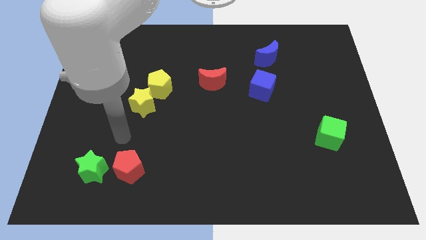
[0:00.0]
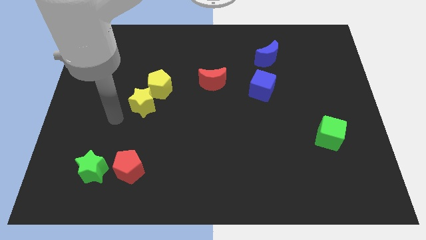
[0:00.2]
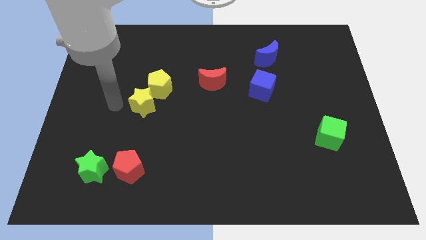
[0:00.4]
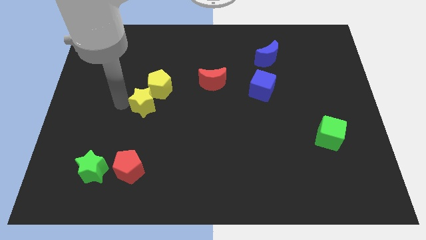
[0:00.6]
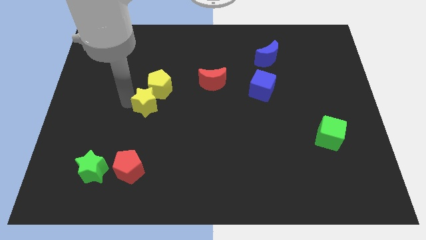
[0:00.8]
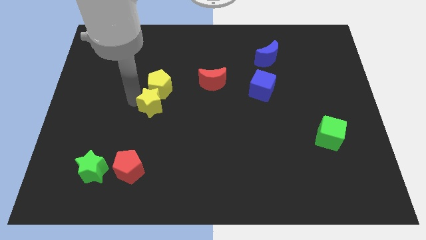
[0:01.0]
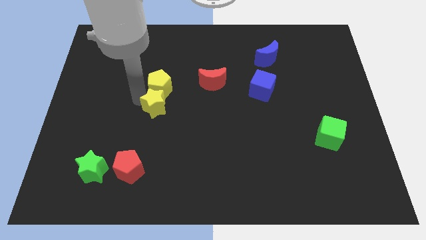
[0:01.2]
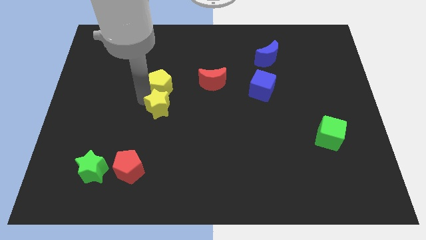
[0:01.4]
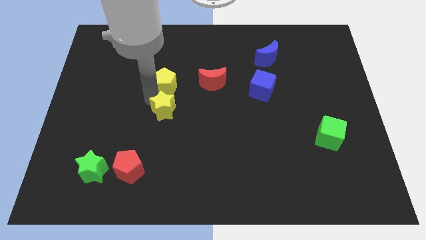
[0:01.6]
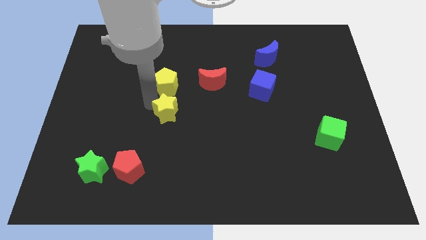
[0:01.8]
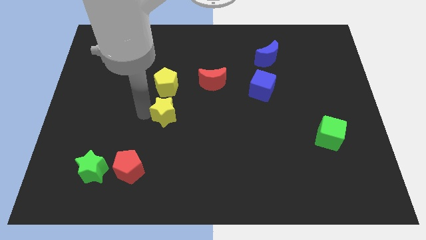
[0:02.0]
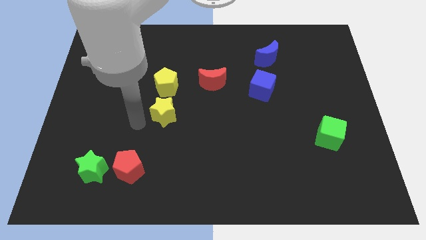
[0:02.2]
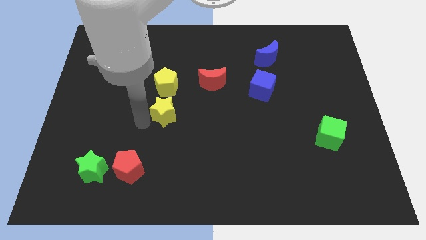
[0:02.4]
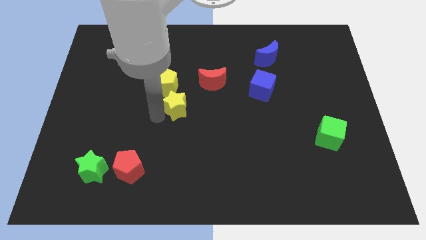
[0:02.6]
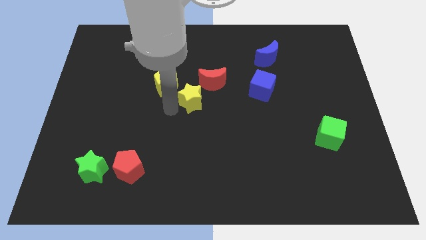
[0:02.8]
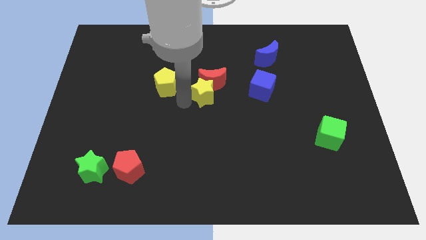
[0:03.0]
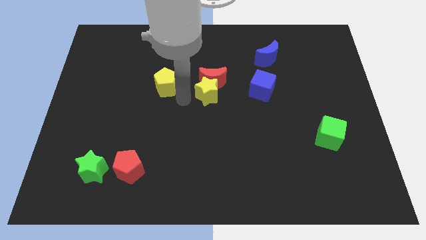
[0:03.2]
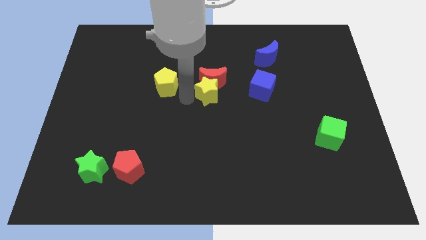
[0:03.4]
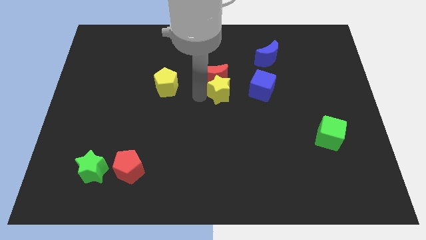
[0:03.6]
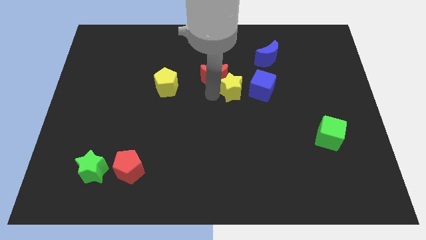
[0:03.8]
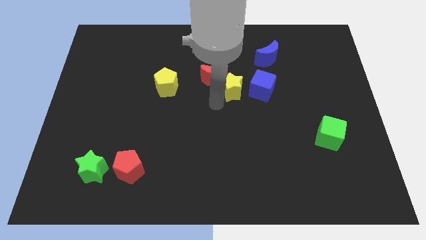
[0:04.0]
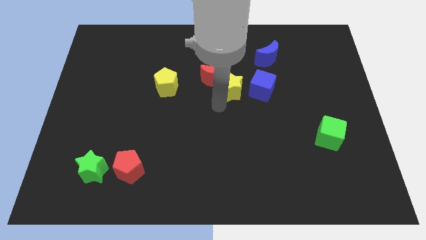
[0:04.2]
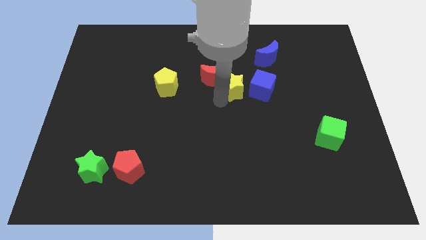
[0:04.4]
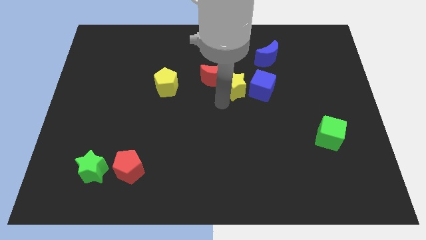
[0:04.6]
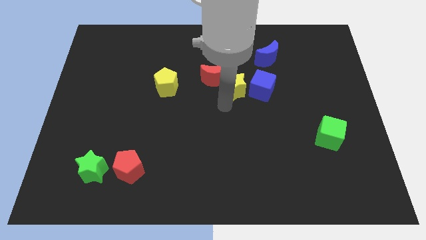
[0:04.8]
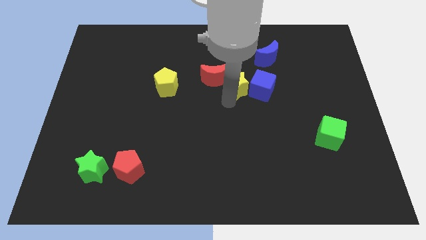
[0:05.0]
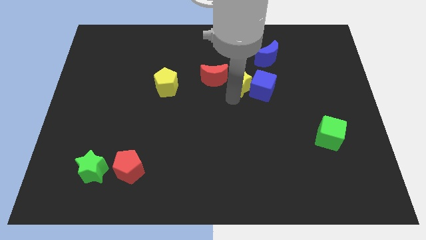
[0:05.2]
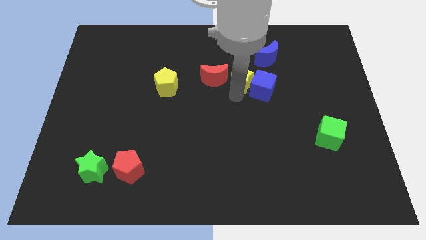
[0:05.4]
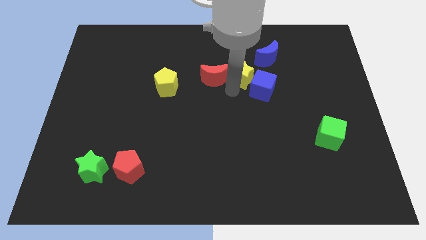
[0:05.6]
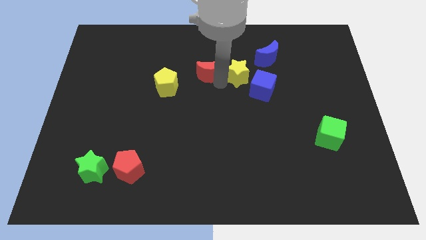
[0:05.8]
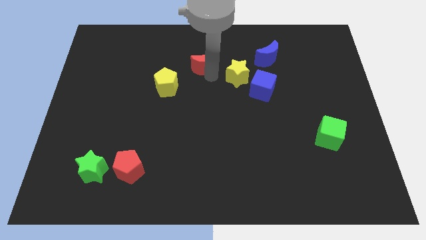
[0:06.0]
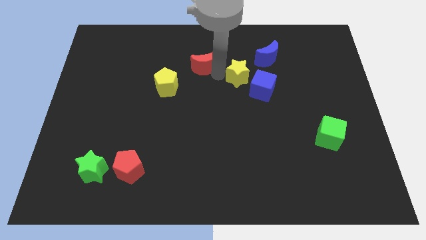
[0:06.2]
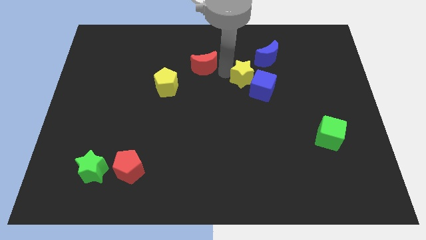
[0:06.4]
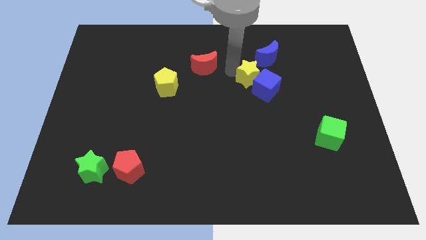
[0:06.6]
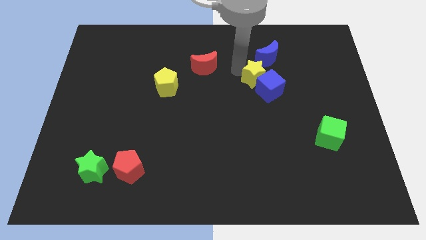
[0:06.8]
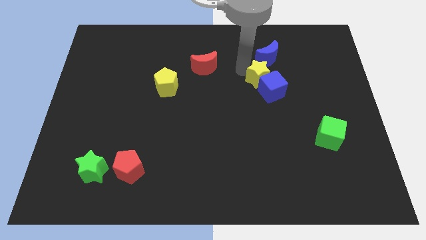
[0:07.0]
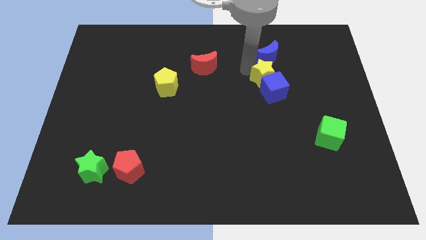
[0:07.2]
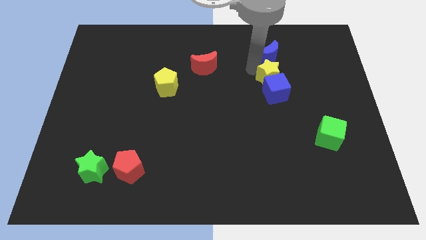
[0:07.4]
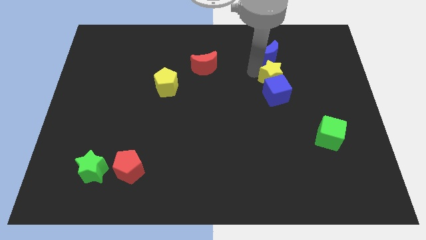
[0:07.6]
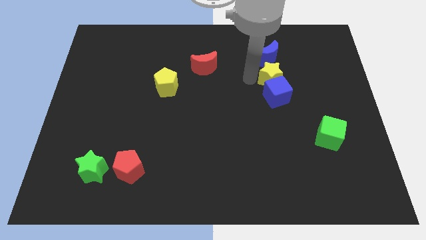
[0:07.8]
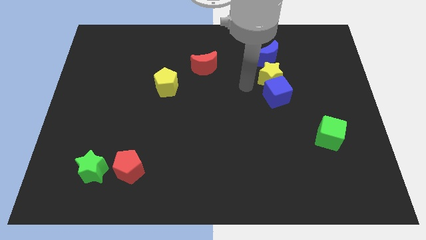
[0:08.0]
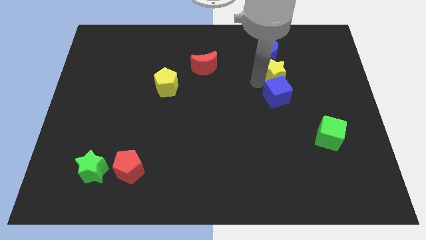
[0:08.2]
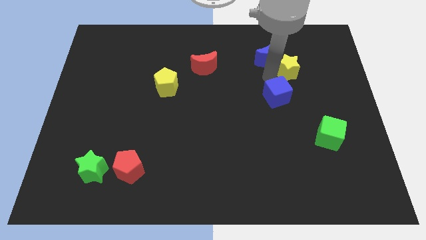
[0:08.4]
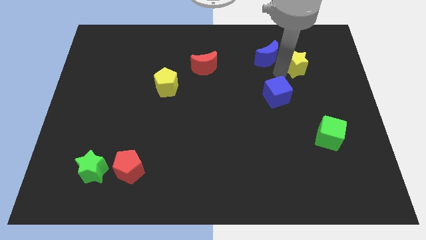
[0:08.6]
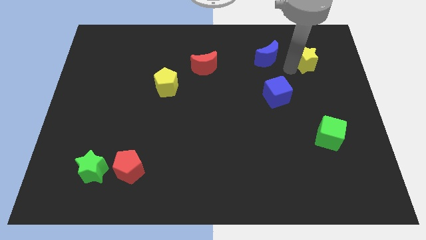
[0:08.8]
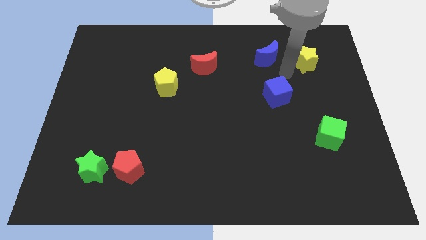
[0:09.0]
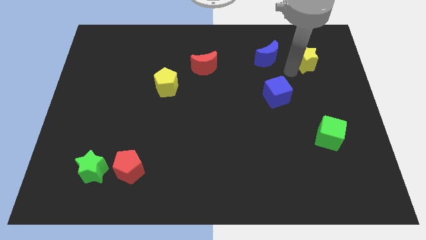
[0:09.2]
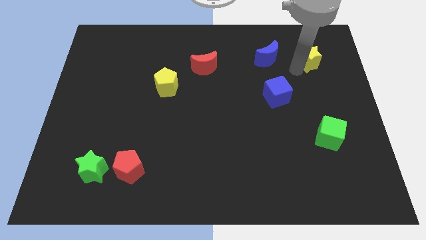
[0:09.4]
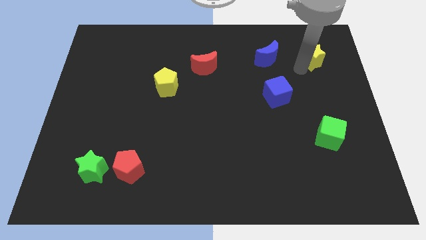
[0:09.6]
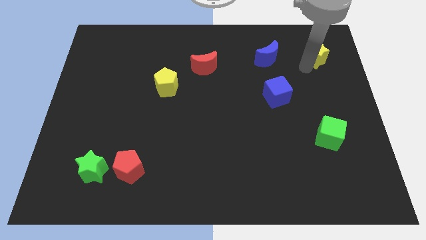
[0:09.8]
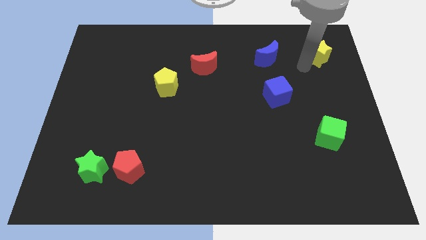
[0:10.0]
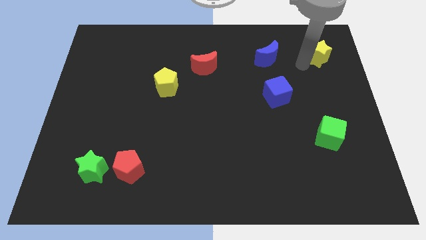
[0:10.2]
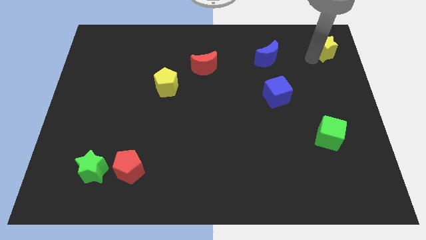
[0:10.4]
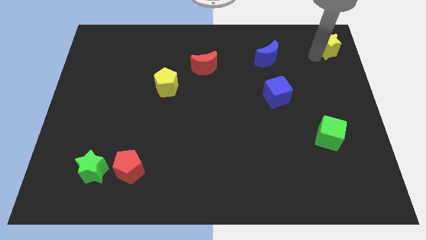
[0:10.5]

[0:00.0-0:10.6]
put the yellow star to the top right

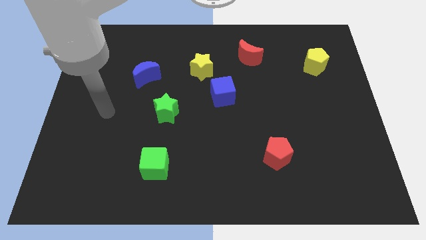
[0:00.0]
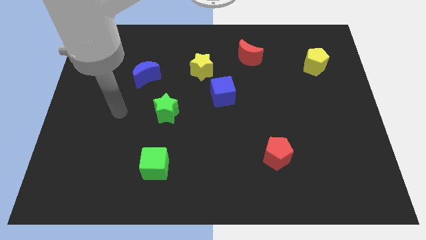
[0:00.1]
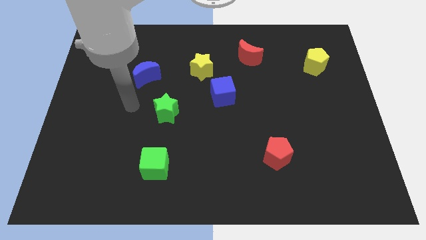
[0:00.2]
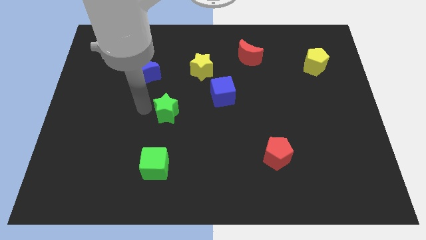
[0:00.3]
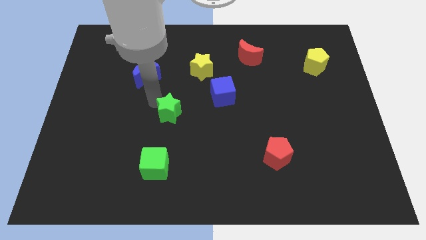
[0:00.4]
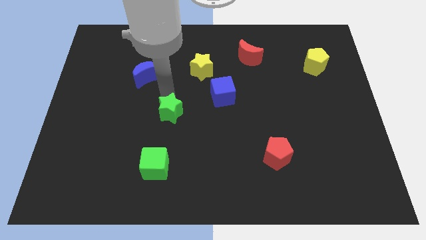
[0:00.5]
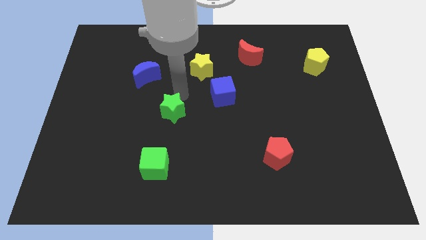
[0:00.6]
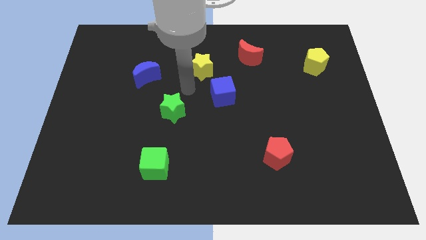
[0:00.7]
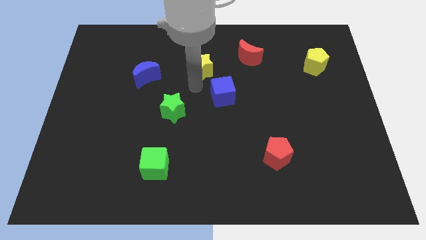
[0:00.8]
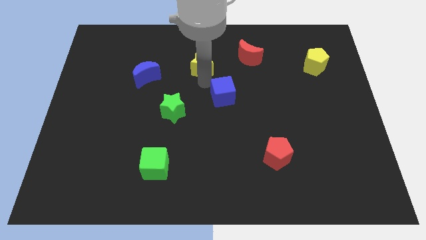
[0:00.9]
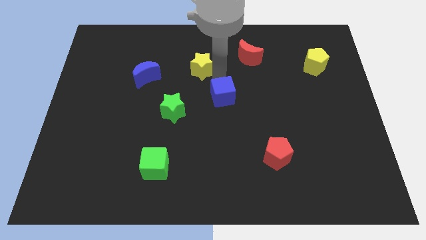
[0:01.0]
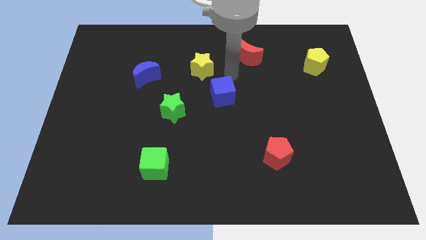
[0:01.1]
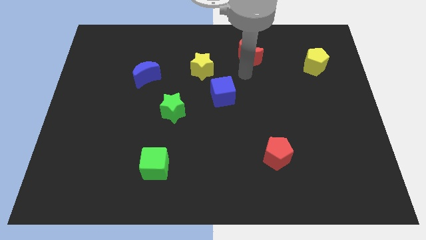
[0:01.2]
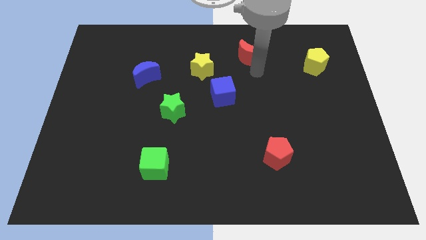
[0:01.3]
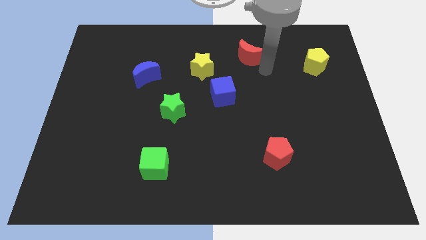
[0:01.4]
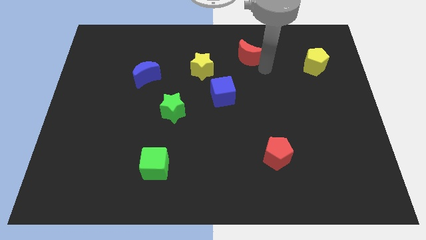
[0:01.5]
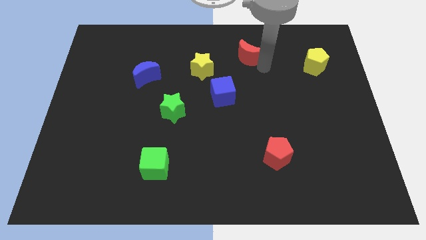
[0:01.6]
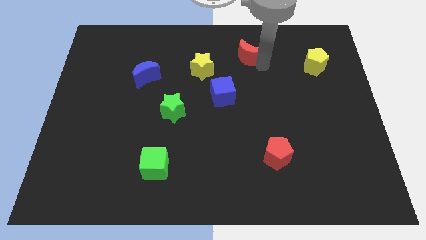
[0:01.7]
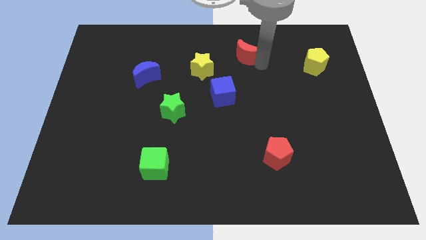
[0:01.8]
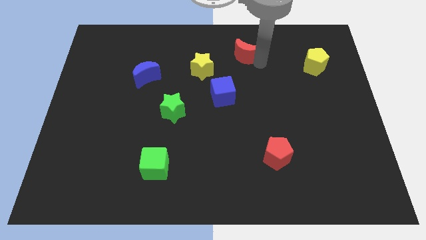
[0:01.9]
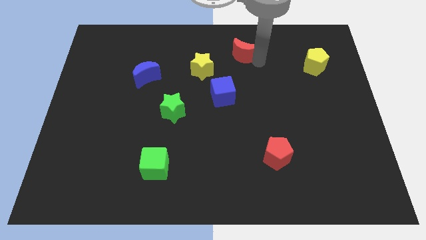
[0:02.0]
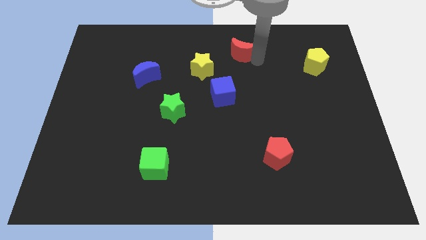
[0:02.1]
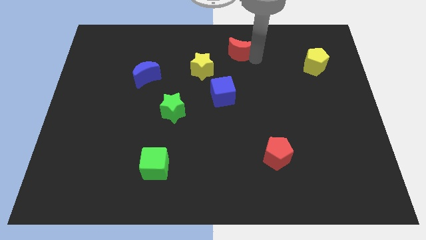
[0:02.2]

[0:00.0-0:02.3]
put the red moon to the top
